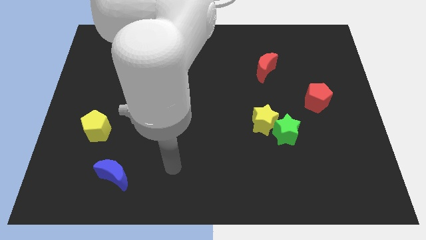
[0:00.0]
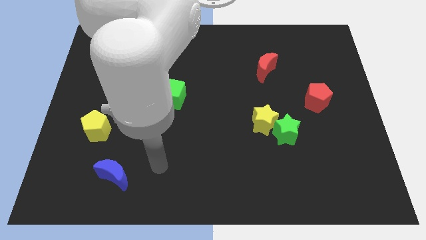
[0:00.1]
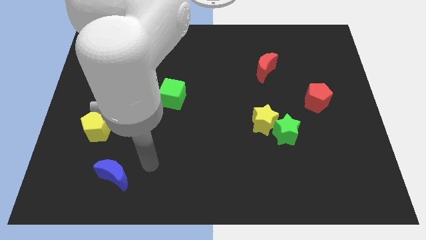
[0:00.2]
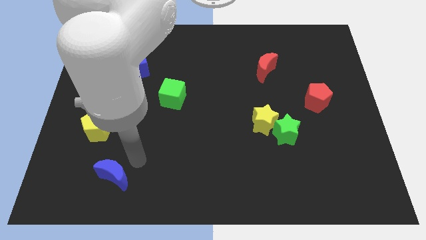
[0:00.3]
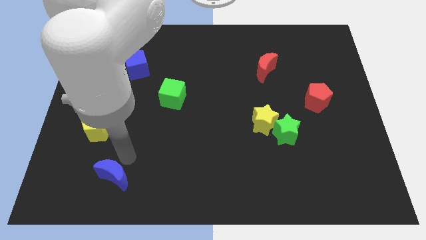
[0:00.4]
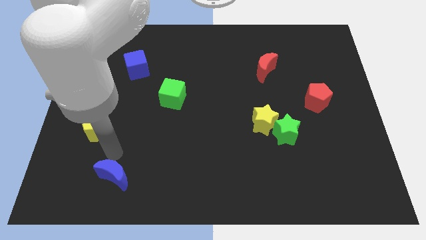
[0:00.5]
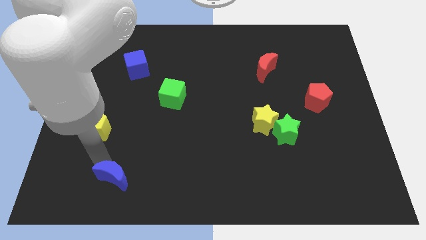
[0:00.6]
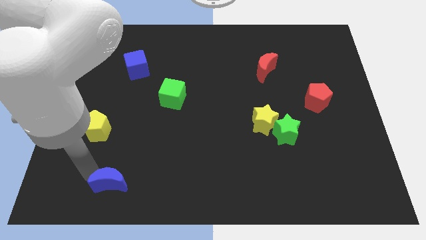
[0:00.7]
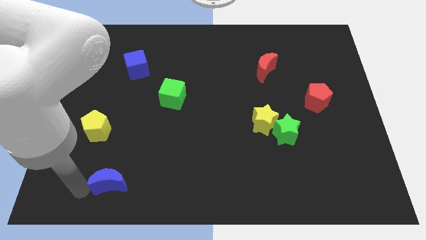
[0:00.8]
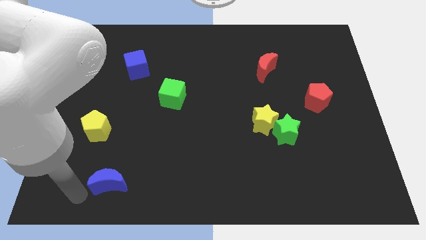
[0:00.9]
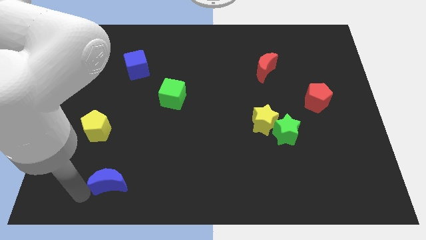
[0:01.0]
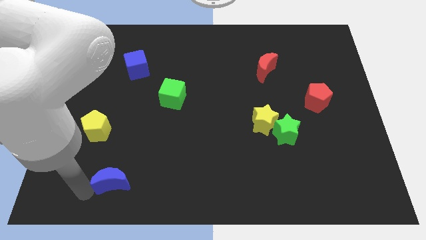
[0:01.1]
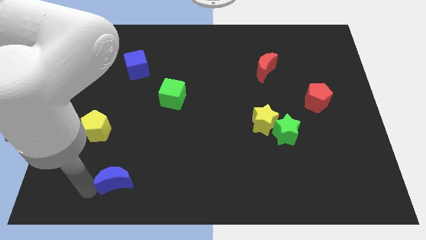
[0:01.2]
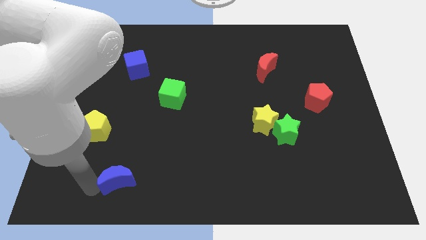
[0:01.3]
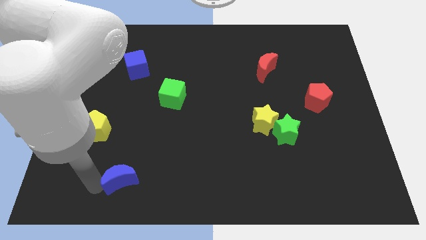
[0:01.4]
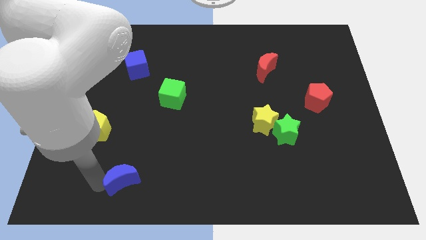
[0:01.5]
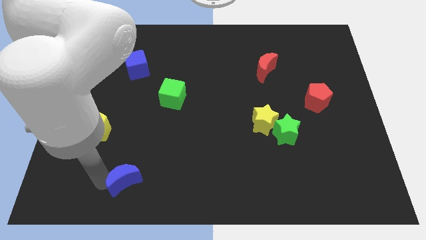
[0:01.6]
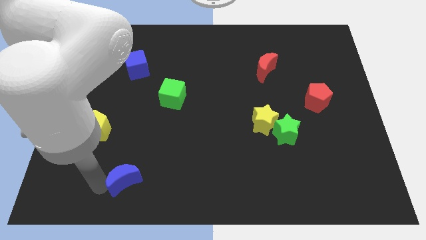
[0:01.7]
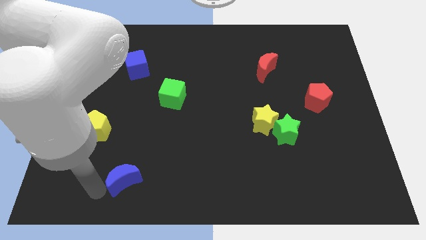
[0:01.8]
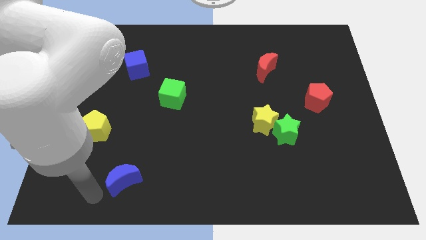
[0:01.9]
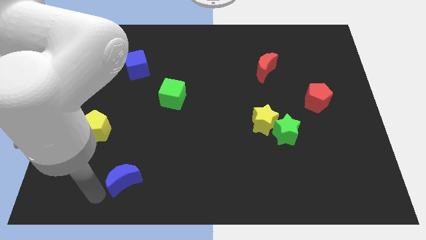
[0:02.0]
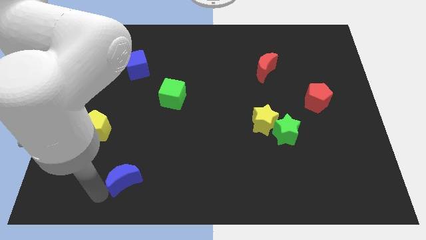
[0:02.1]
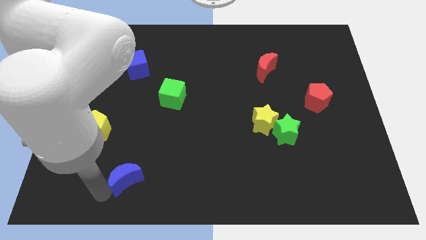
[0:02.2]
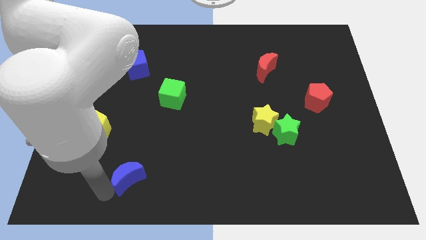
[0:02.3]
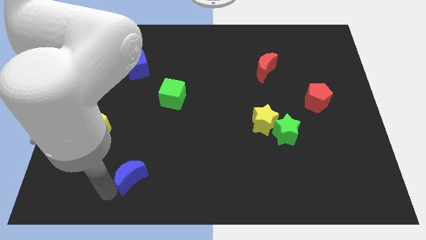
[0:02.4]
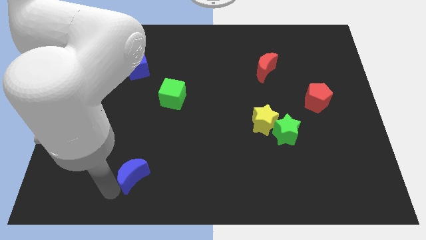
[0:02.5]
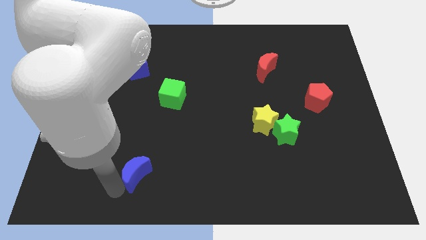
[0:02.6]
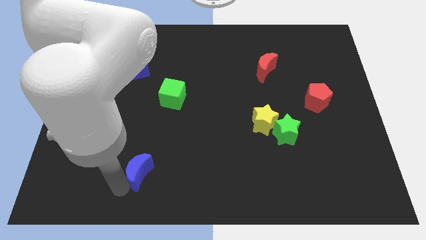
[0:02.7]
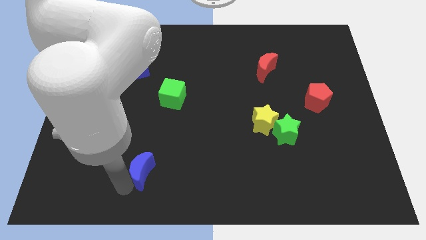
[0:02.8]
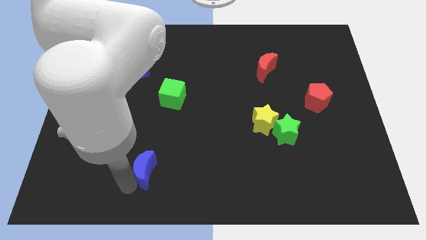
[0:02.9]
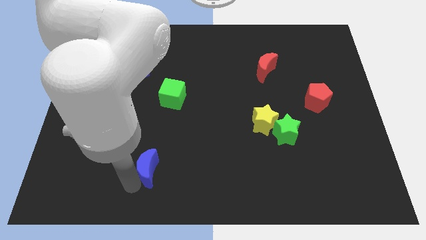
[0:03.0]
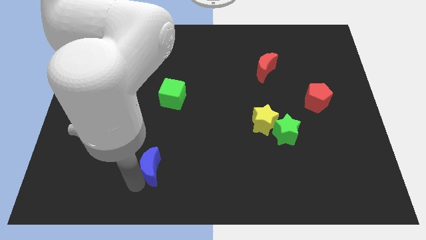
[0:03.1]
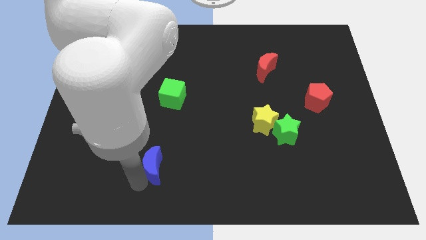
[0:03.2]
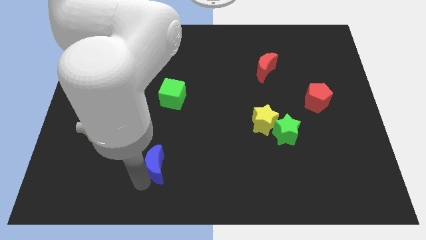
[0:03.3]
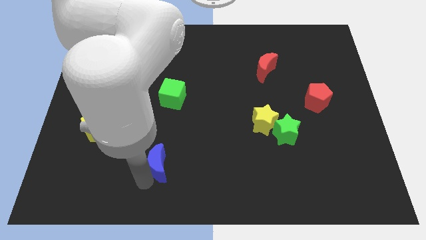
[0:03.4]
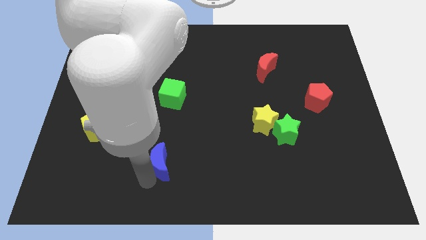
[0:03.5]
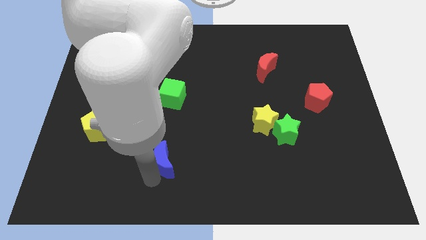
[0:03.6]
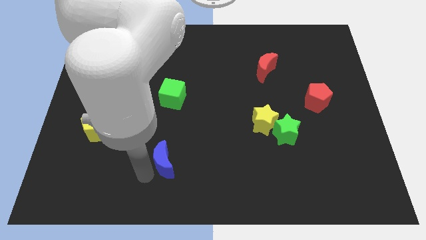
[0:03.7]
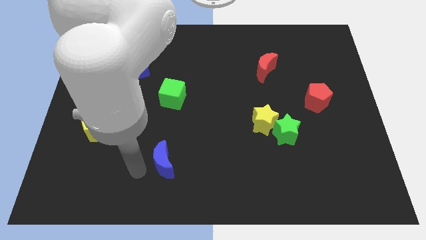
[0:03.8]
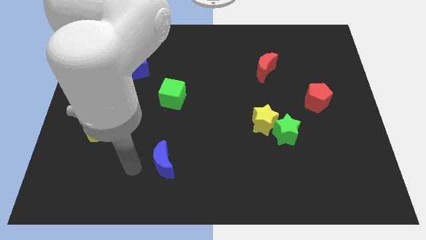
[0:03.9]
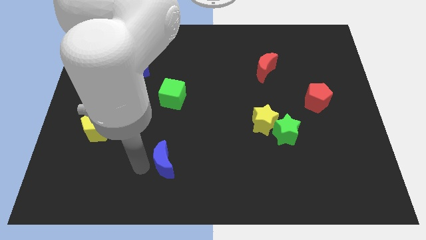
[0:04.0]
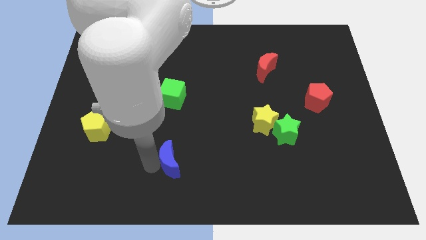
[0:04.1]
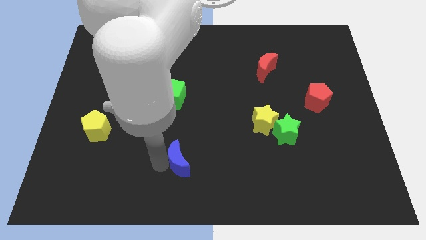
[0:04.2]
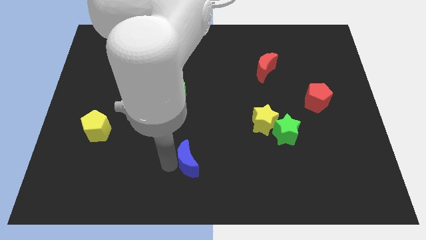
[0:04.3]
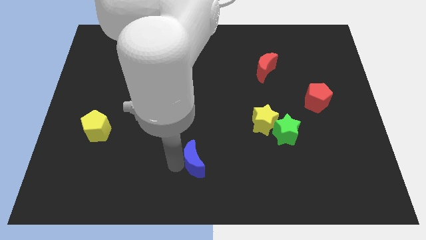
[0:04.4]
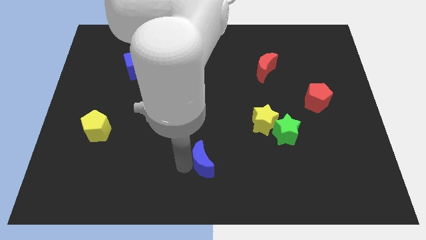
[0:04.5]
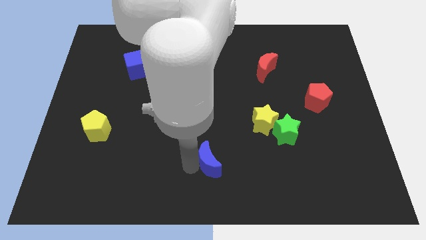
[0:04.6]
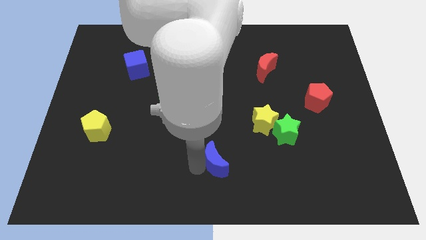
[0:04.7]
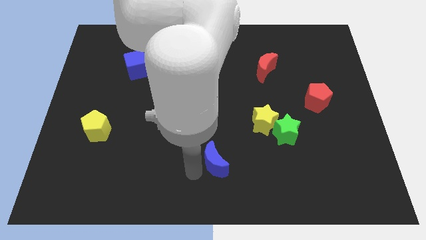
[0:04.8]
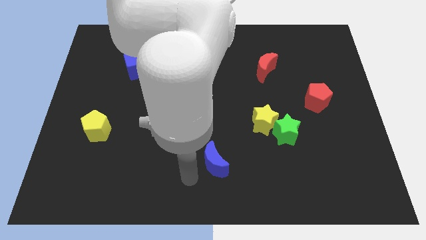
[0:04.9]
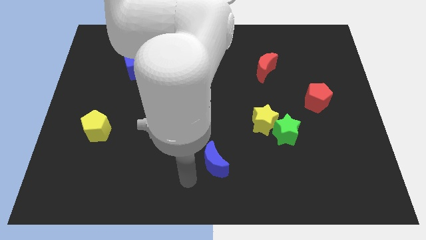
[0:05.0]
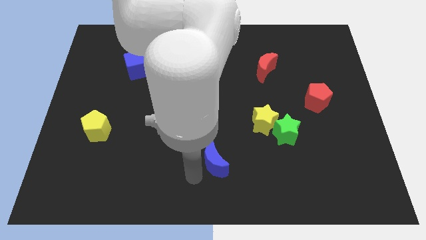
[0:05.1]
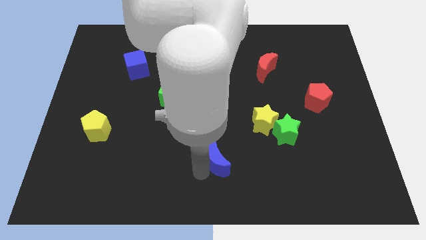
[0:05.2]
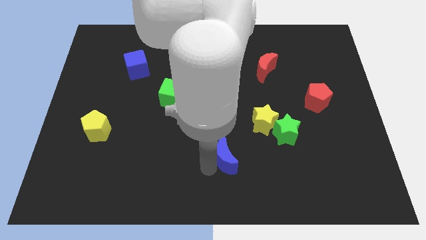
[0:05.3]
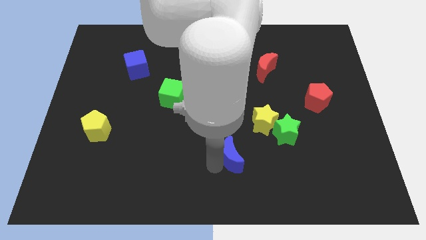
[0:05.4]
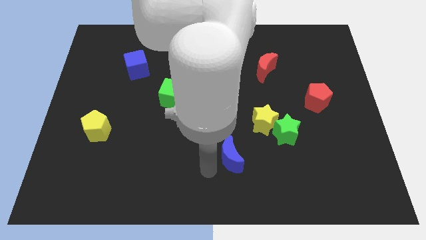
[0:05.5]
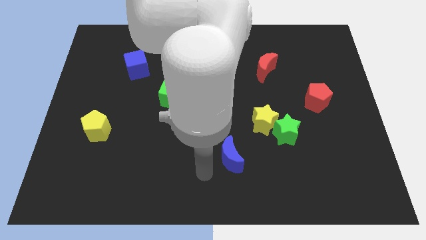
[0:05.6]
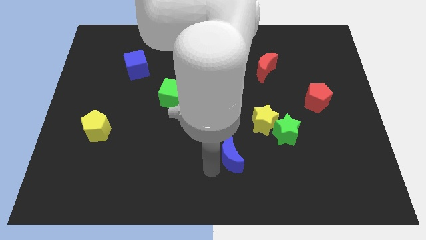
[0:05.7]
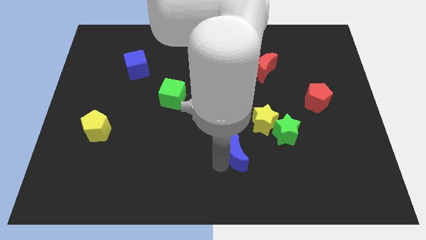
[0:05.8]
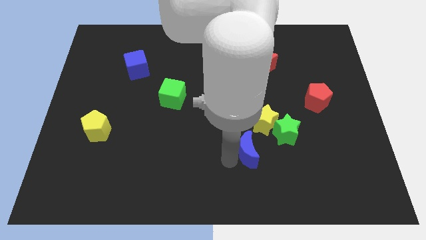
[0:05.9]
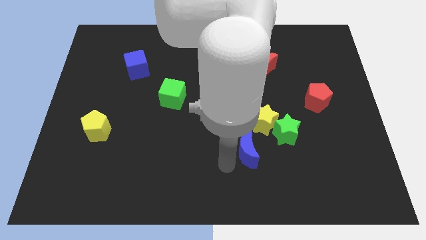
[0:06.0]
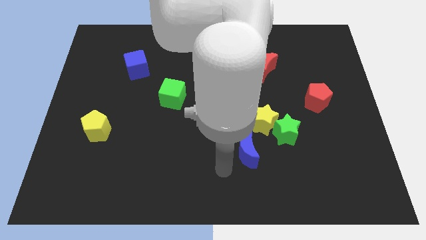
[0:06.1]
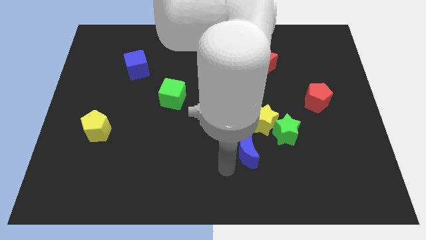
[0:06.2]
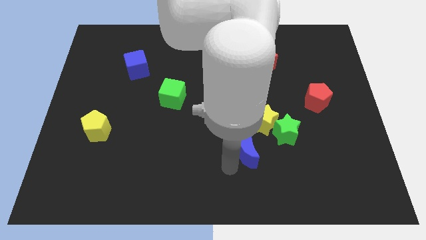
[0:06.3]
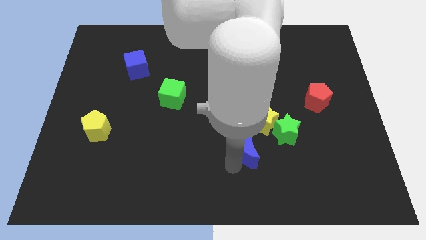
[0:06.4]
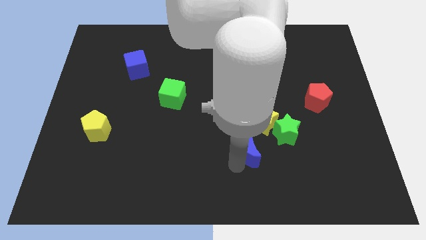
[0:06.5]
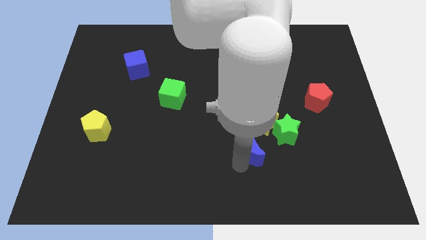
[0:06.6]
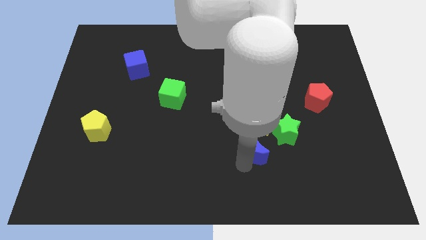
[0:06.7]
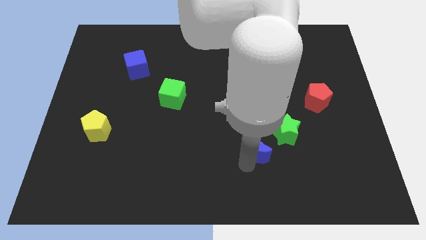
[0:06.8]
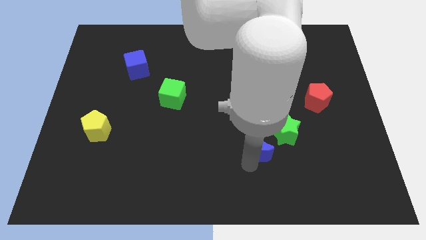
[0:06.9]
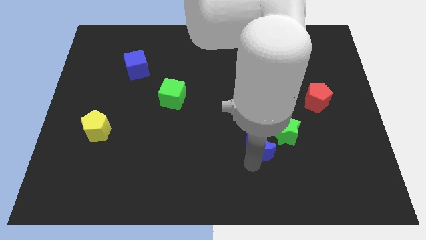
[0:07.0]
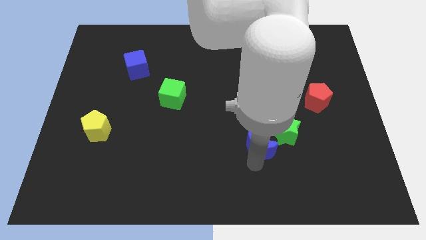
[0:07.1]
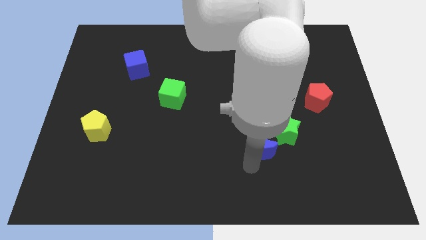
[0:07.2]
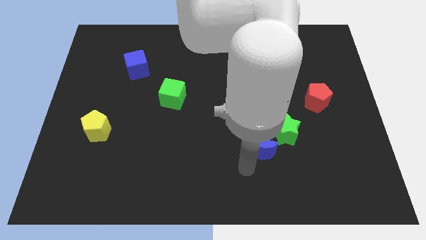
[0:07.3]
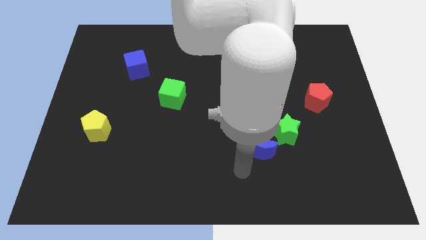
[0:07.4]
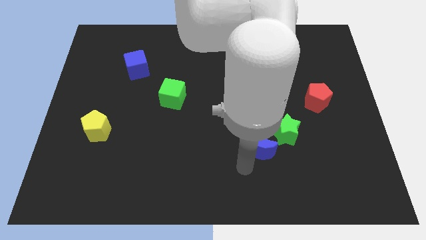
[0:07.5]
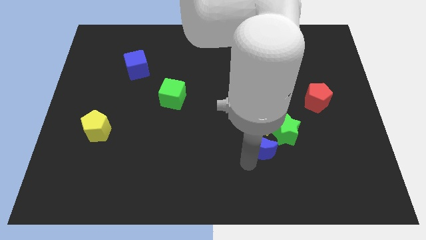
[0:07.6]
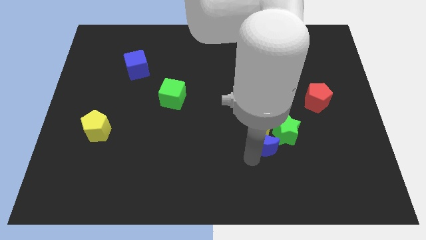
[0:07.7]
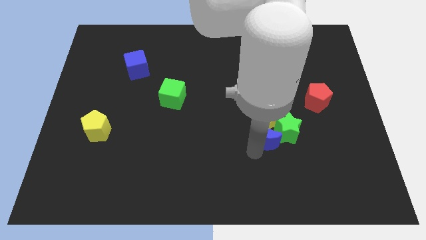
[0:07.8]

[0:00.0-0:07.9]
push the blue moon close to the green star
